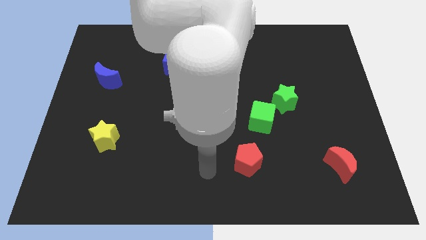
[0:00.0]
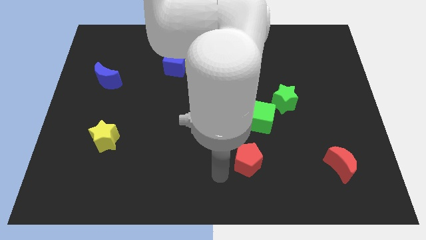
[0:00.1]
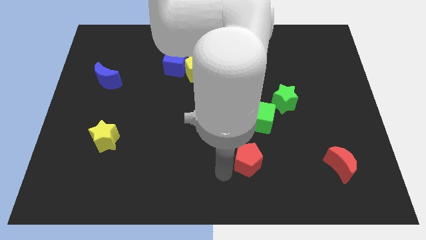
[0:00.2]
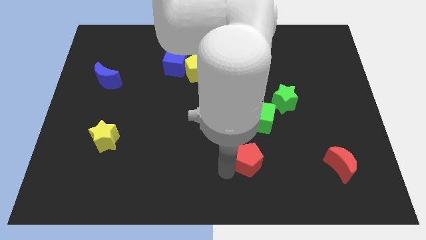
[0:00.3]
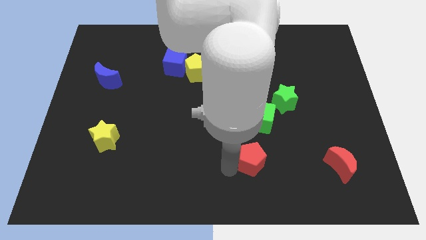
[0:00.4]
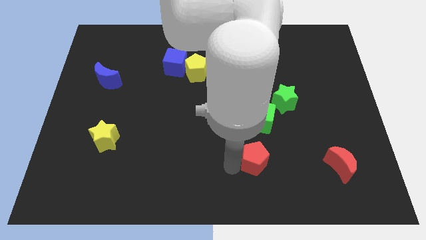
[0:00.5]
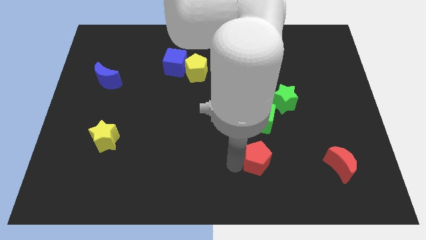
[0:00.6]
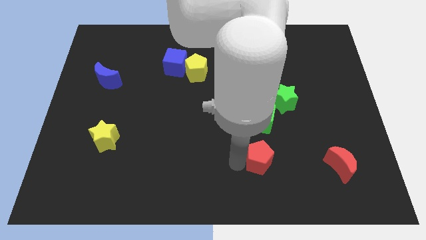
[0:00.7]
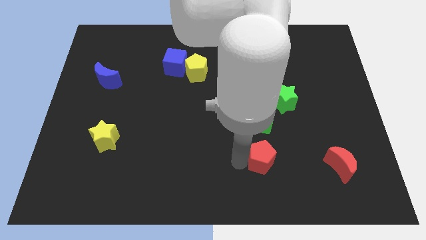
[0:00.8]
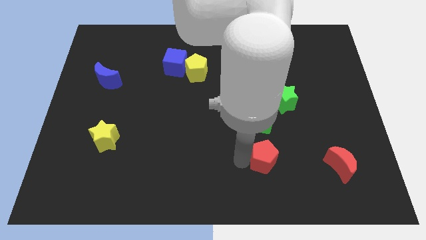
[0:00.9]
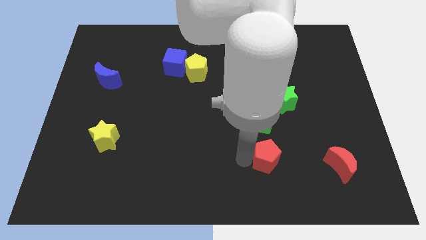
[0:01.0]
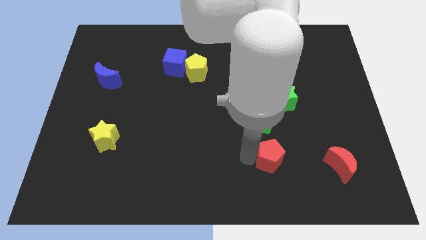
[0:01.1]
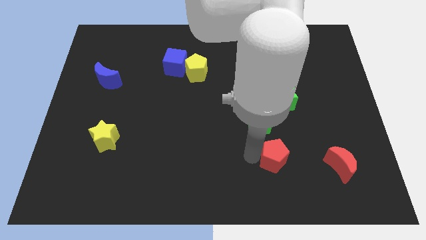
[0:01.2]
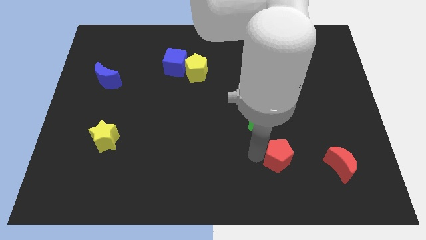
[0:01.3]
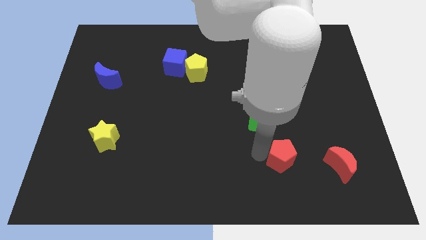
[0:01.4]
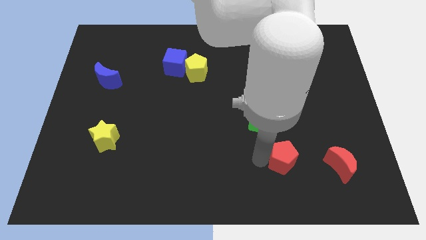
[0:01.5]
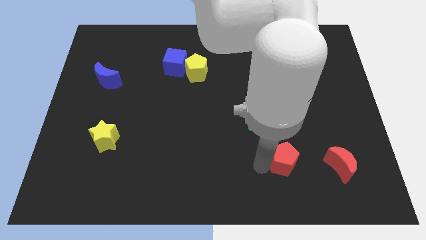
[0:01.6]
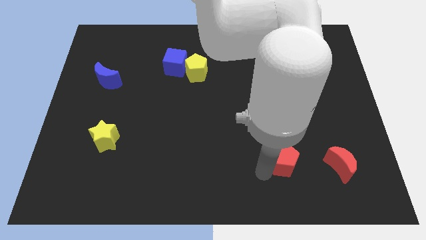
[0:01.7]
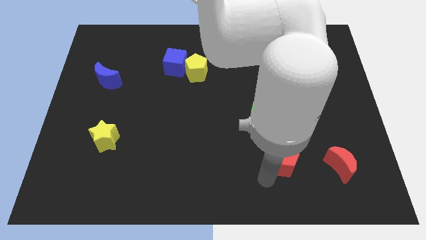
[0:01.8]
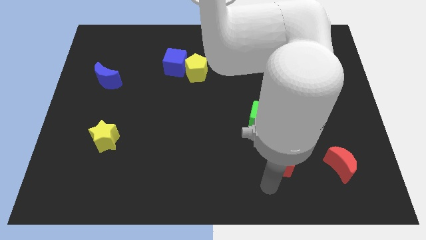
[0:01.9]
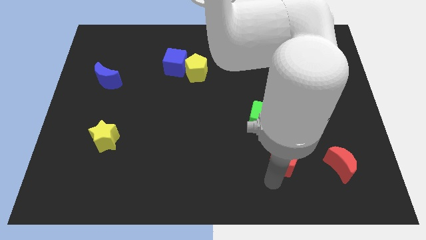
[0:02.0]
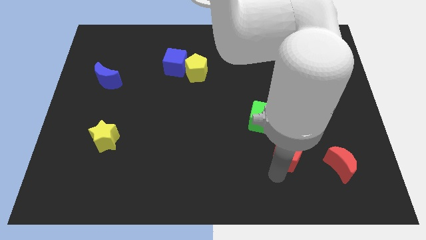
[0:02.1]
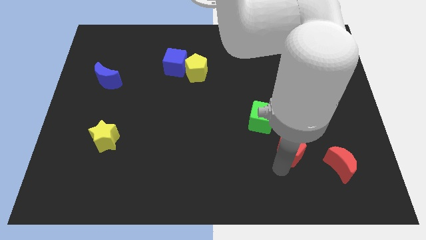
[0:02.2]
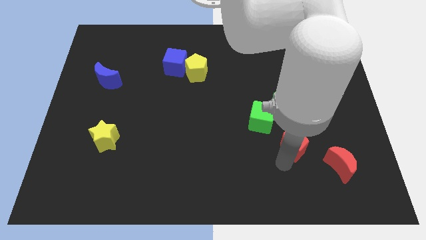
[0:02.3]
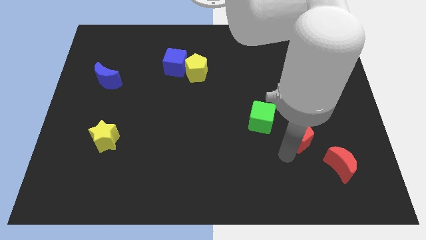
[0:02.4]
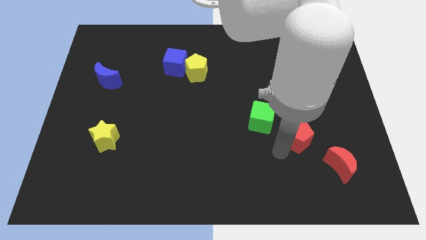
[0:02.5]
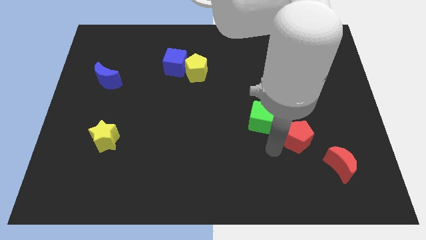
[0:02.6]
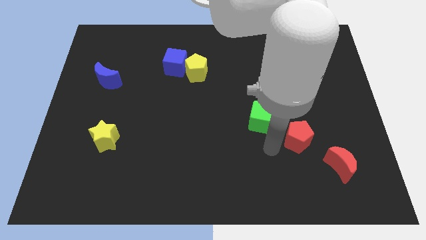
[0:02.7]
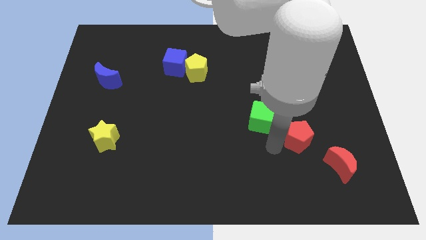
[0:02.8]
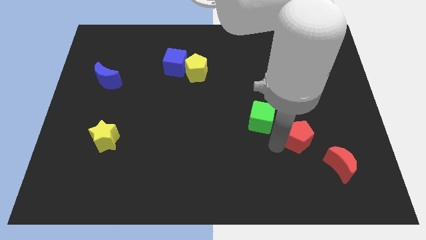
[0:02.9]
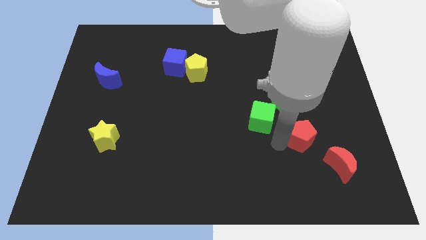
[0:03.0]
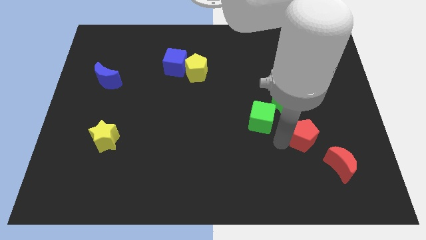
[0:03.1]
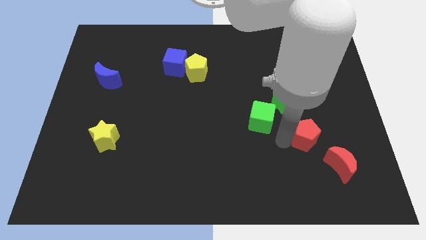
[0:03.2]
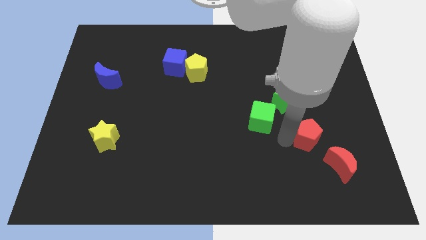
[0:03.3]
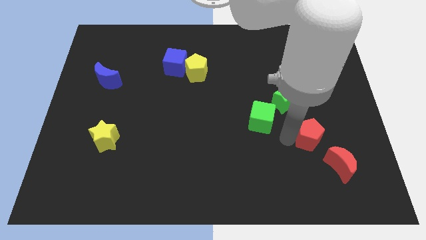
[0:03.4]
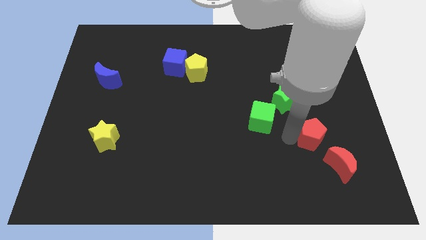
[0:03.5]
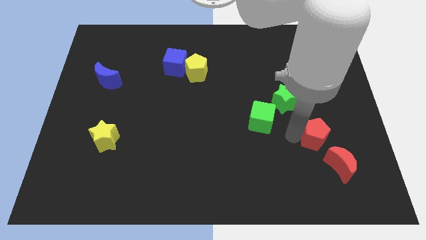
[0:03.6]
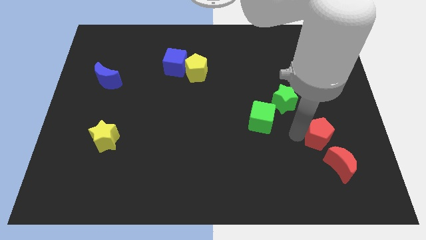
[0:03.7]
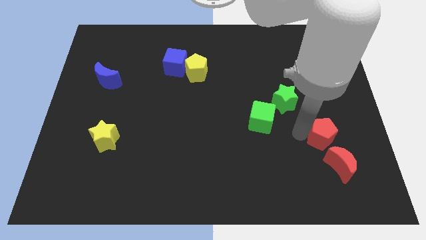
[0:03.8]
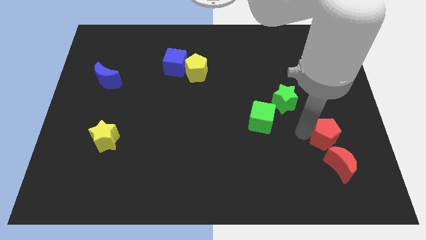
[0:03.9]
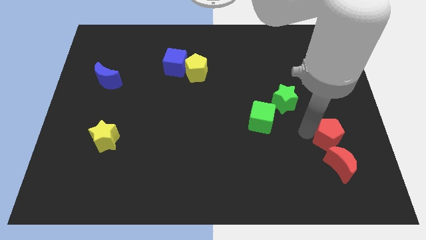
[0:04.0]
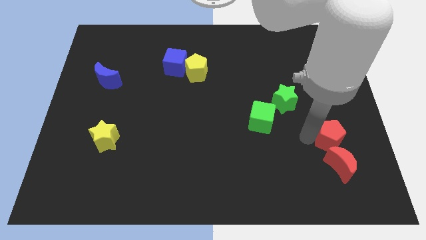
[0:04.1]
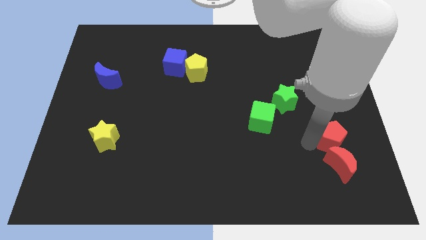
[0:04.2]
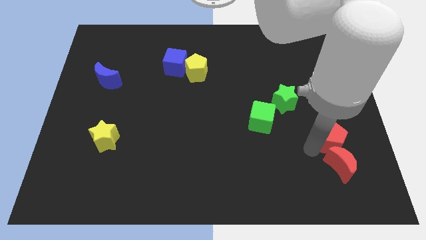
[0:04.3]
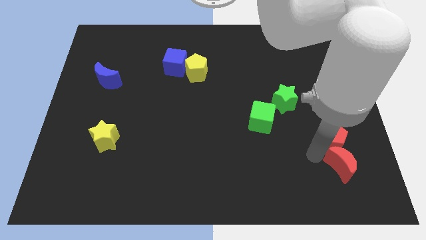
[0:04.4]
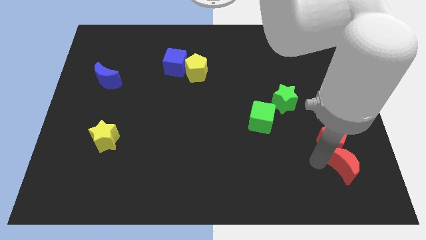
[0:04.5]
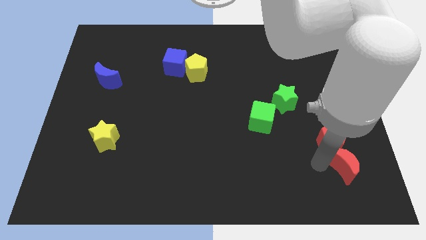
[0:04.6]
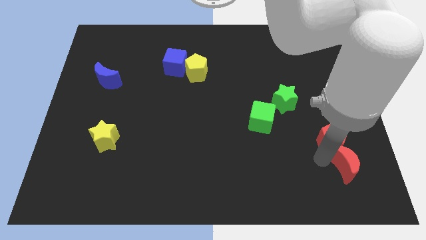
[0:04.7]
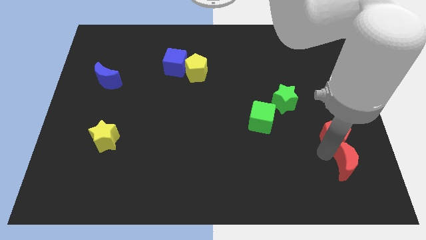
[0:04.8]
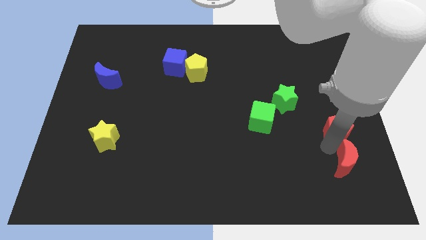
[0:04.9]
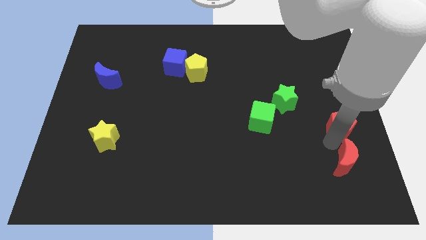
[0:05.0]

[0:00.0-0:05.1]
slide the red pentagon to the center right

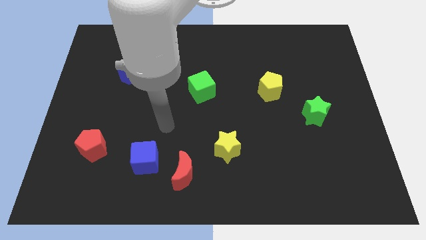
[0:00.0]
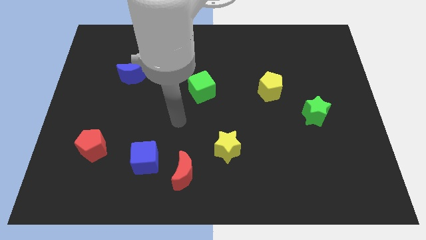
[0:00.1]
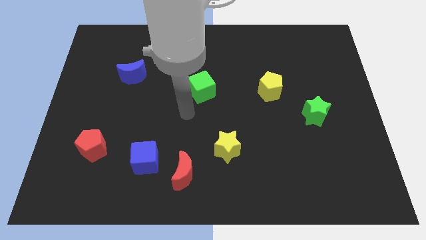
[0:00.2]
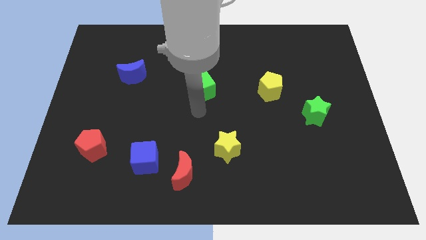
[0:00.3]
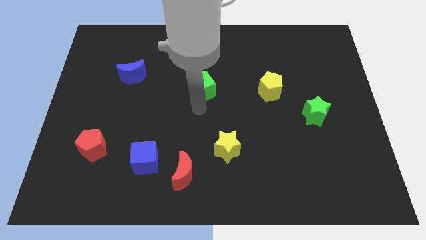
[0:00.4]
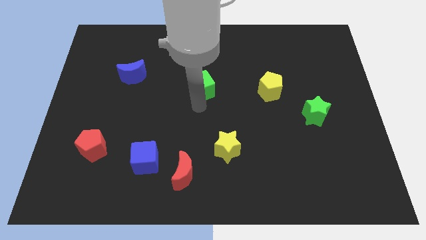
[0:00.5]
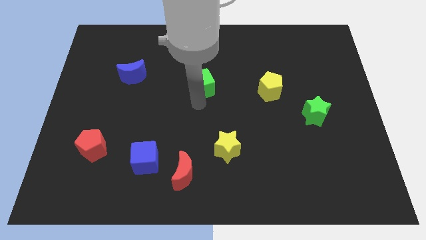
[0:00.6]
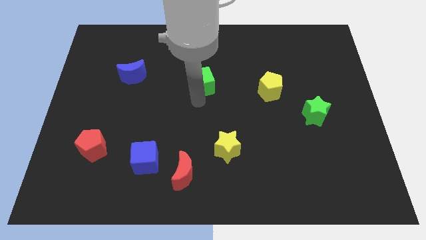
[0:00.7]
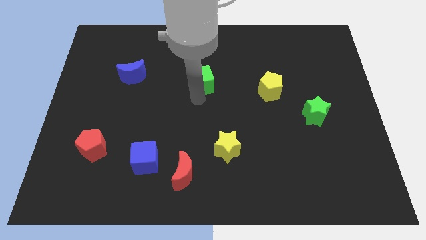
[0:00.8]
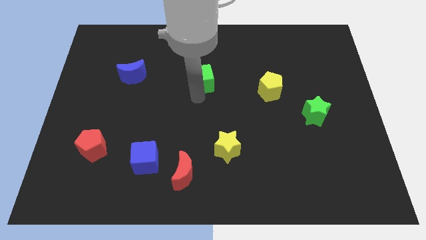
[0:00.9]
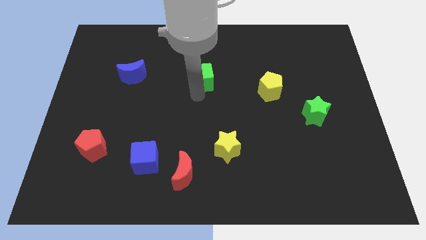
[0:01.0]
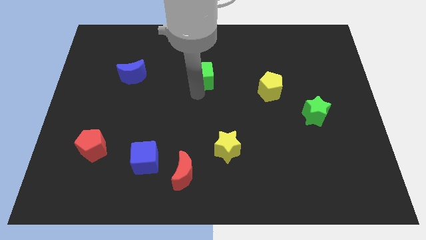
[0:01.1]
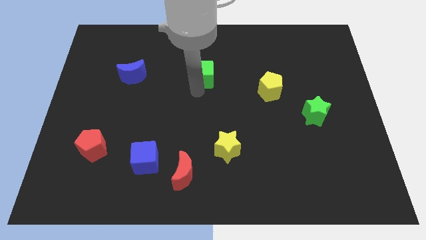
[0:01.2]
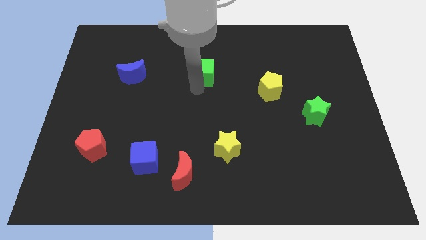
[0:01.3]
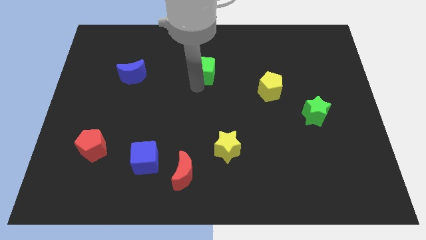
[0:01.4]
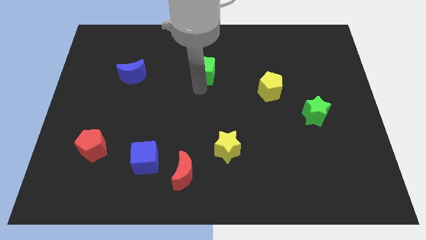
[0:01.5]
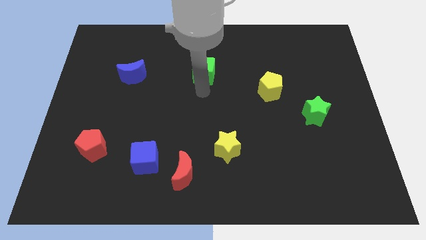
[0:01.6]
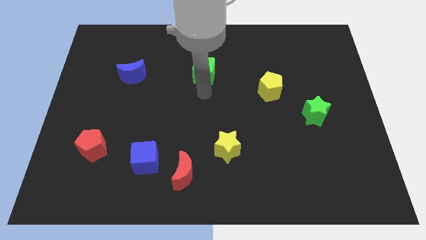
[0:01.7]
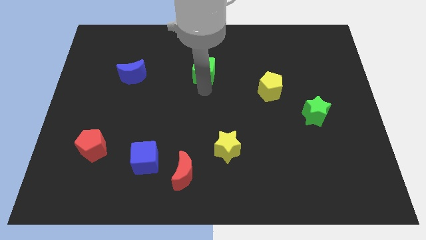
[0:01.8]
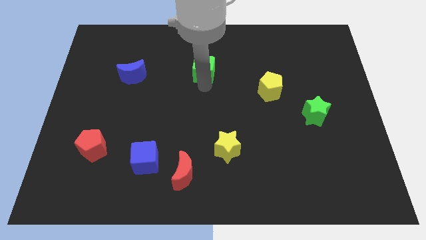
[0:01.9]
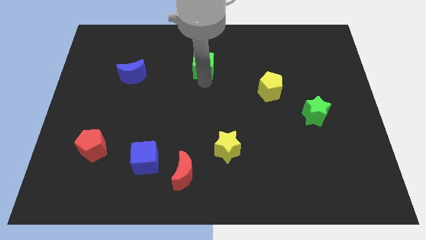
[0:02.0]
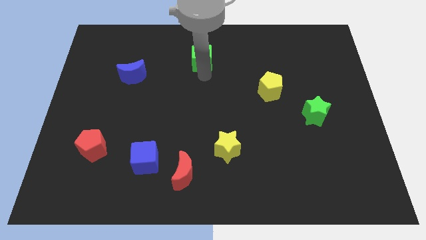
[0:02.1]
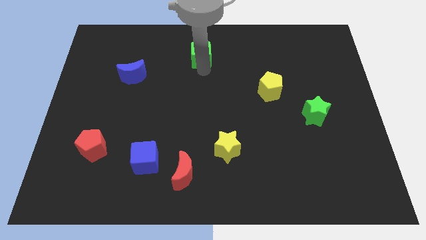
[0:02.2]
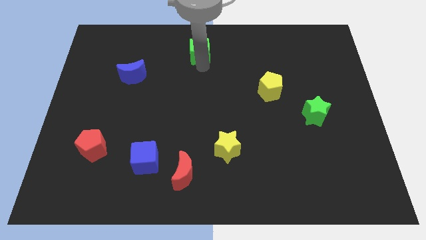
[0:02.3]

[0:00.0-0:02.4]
push the green cube to the top side
